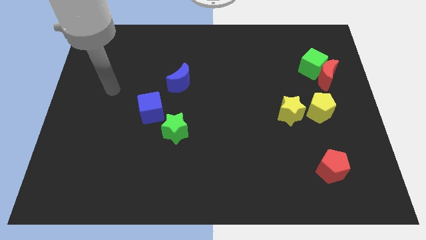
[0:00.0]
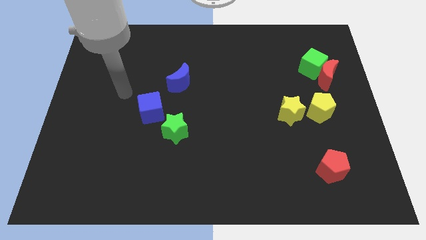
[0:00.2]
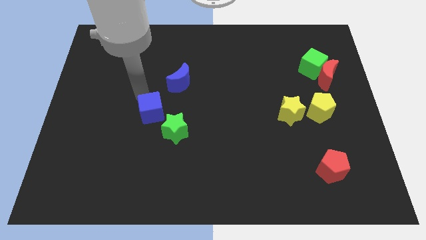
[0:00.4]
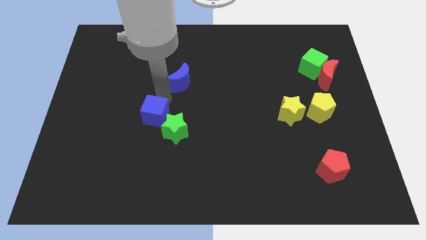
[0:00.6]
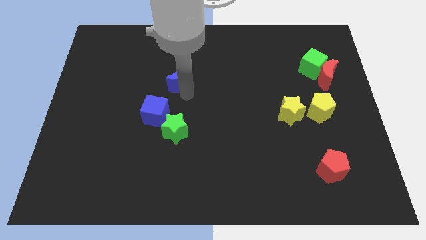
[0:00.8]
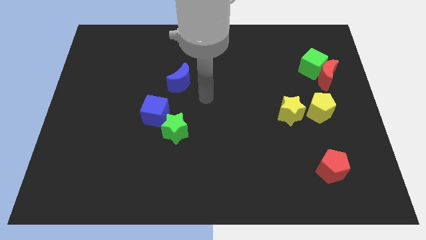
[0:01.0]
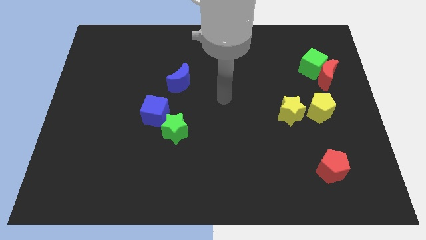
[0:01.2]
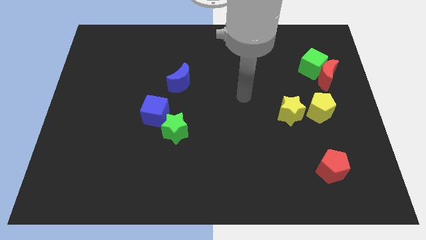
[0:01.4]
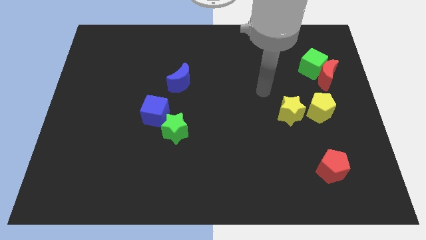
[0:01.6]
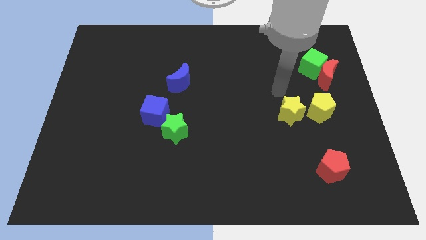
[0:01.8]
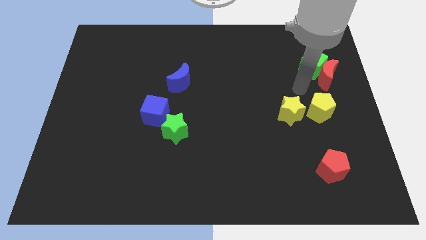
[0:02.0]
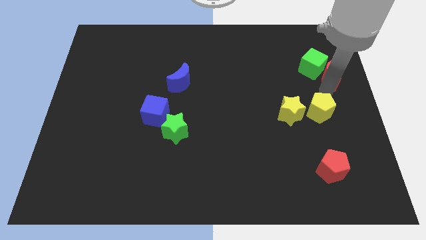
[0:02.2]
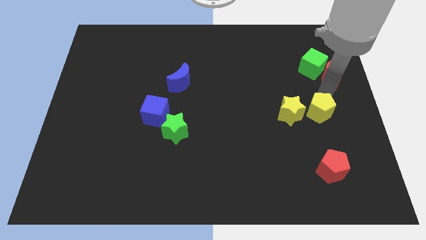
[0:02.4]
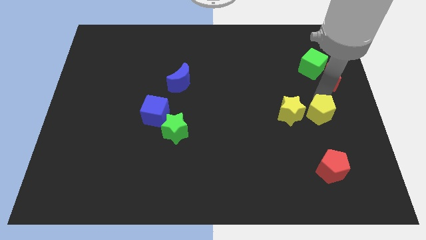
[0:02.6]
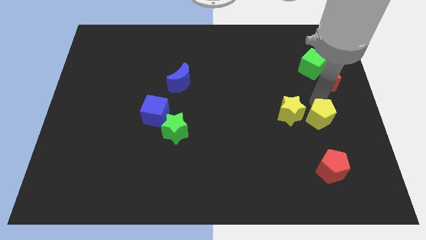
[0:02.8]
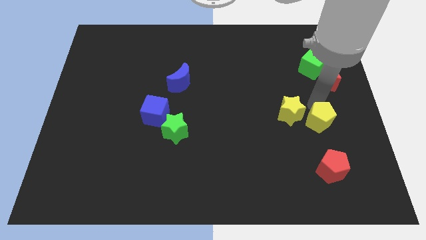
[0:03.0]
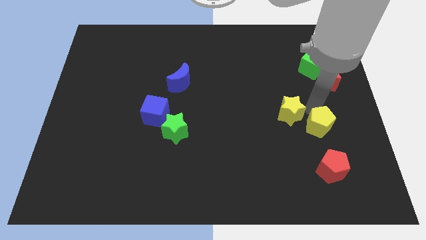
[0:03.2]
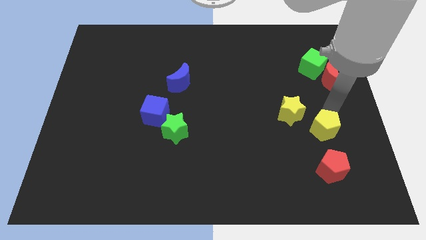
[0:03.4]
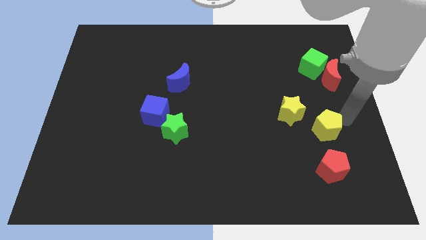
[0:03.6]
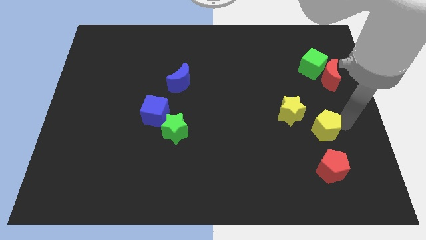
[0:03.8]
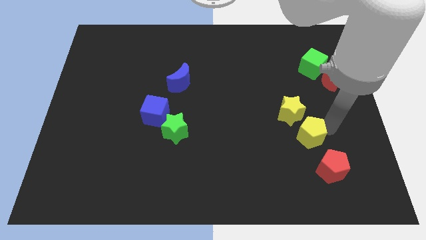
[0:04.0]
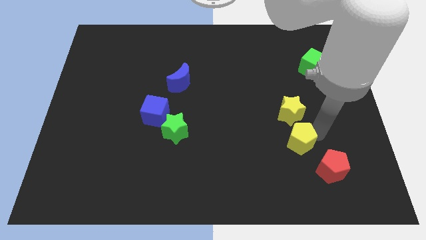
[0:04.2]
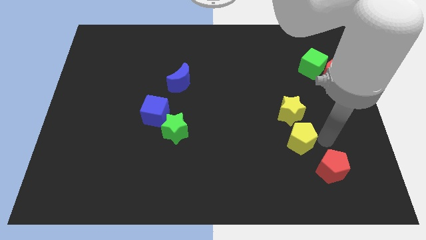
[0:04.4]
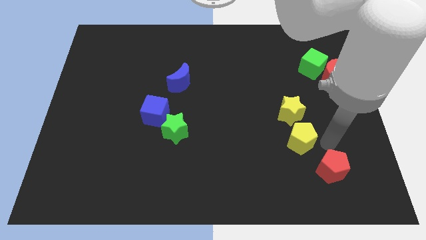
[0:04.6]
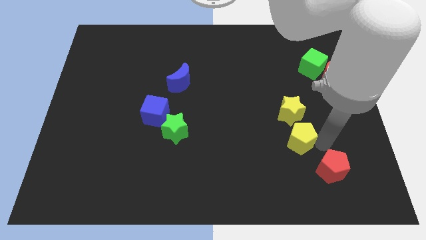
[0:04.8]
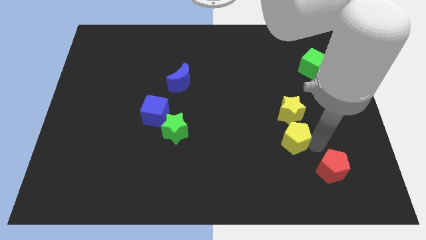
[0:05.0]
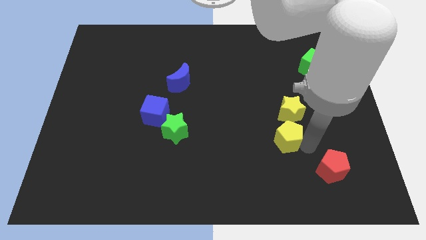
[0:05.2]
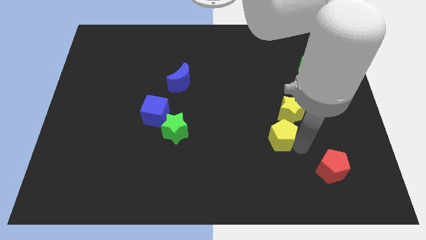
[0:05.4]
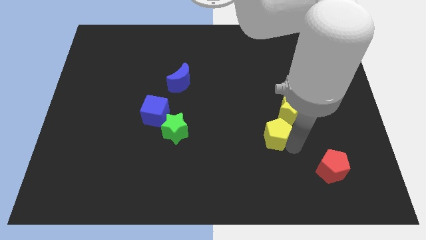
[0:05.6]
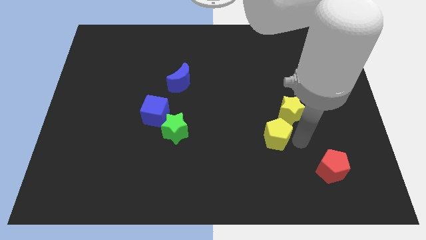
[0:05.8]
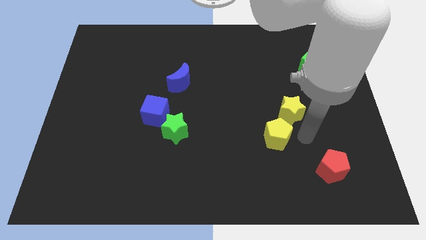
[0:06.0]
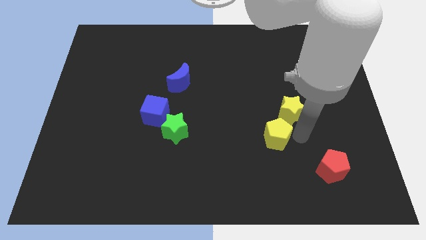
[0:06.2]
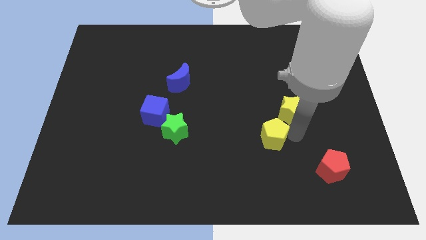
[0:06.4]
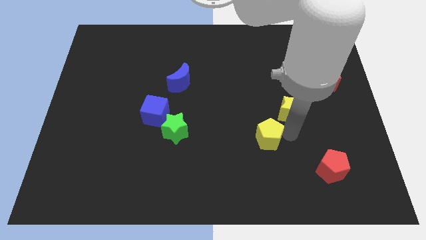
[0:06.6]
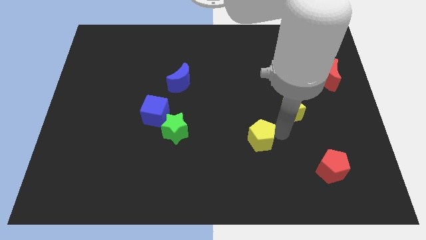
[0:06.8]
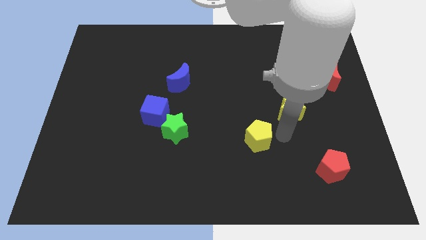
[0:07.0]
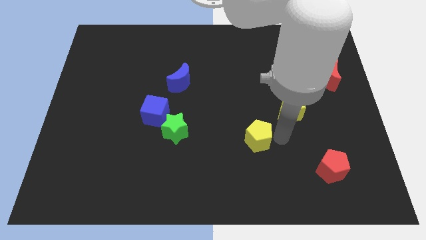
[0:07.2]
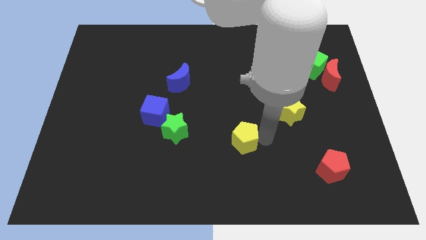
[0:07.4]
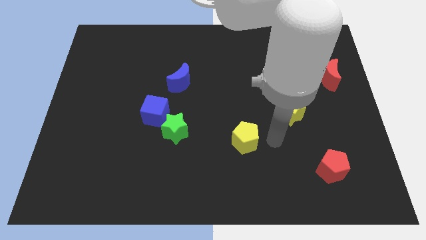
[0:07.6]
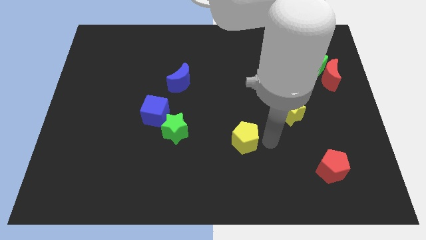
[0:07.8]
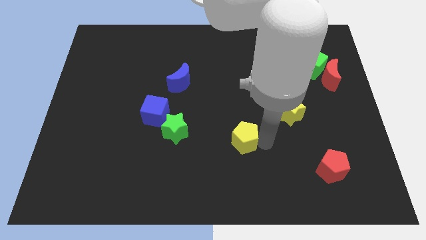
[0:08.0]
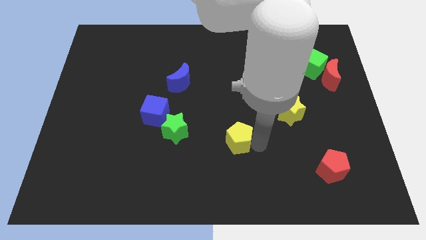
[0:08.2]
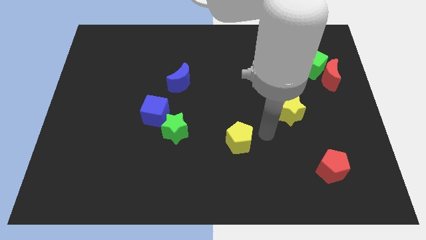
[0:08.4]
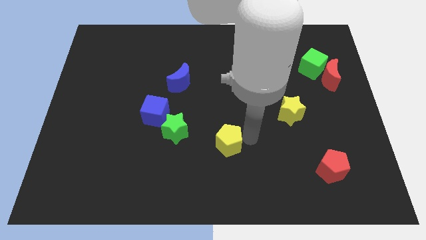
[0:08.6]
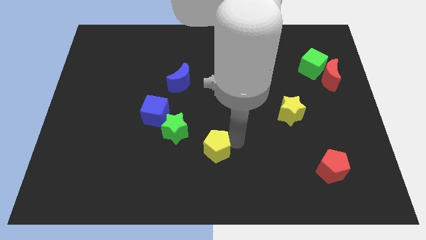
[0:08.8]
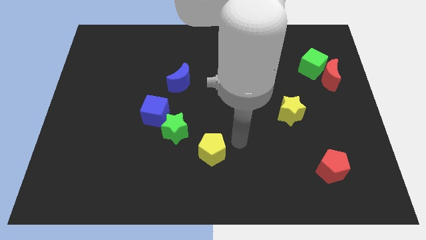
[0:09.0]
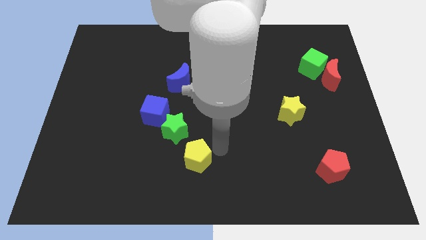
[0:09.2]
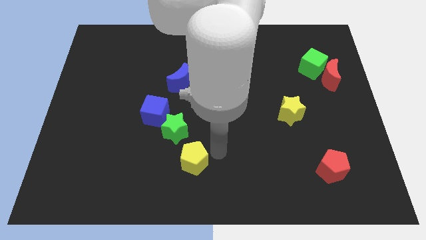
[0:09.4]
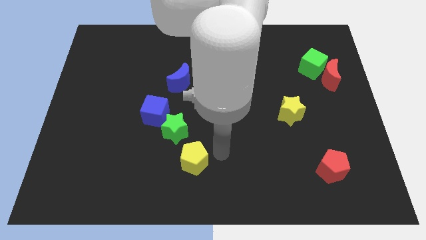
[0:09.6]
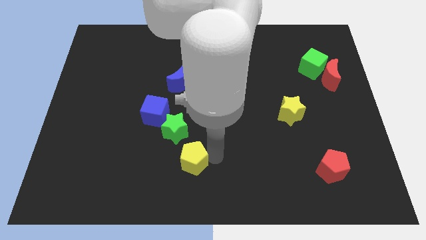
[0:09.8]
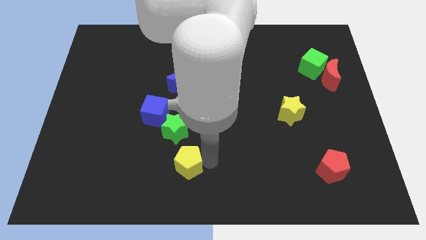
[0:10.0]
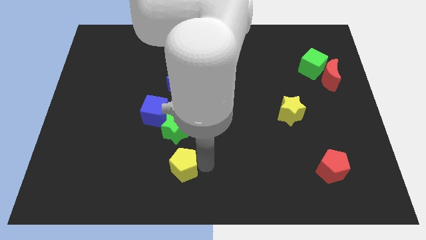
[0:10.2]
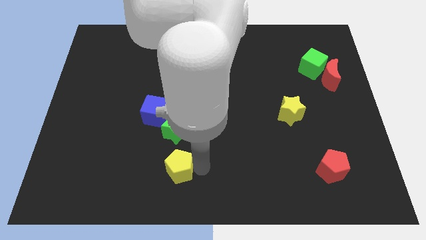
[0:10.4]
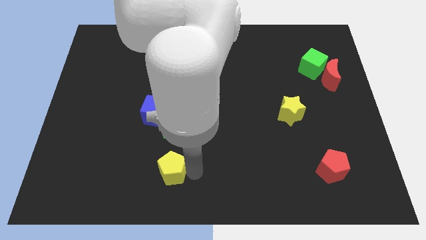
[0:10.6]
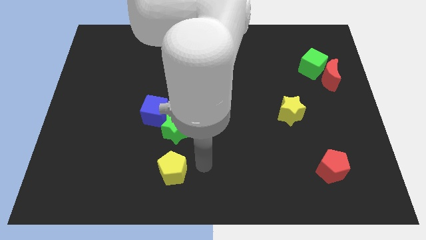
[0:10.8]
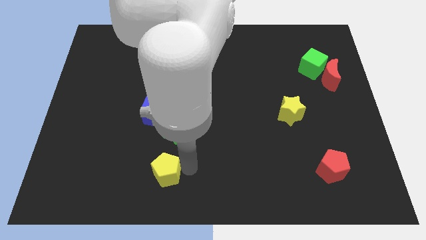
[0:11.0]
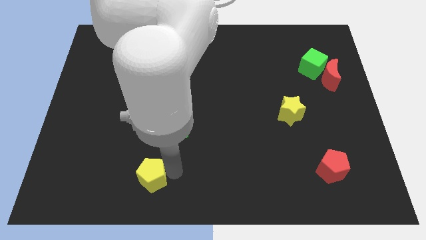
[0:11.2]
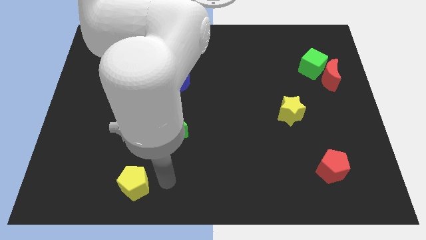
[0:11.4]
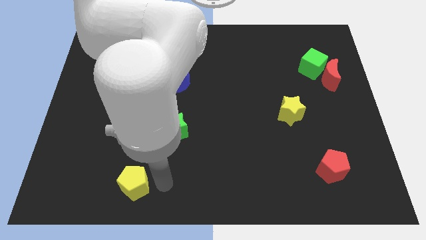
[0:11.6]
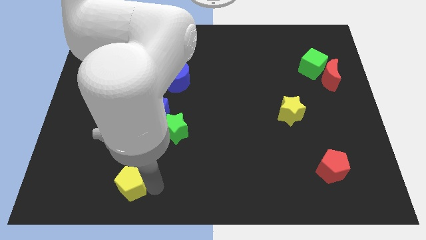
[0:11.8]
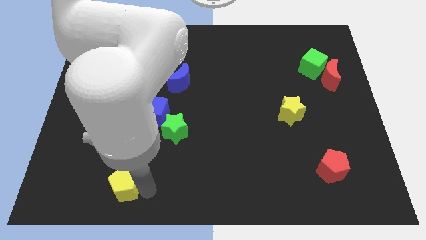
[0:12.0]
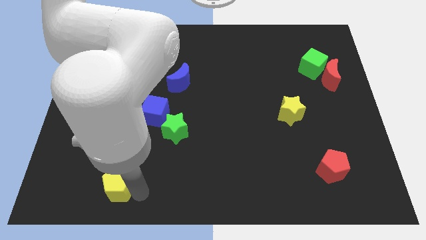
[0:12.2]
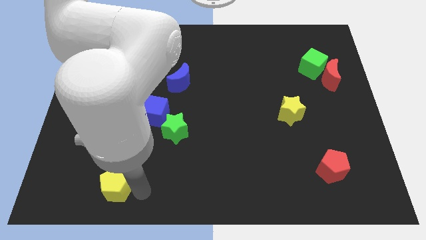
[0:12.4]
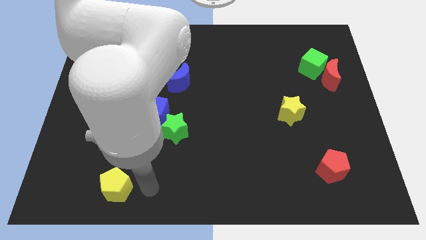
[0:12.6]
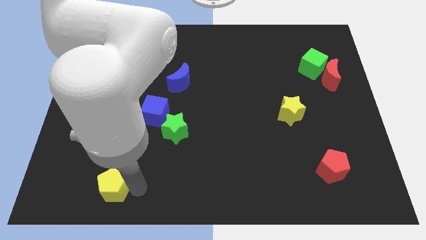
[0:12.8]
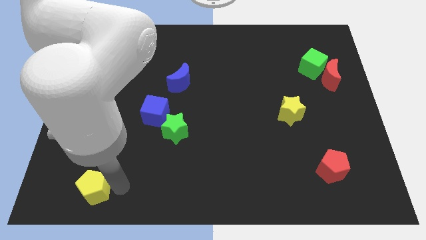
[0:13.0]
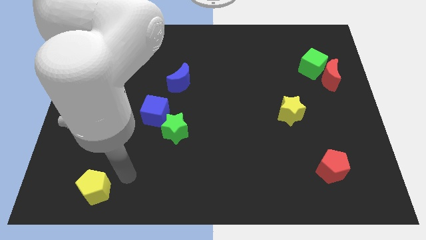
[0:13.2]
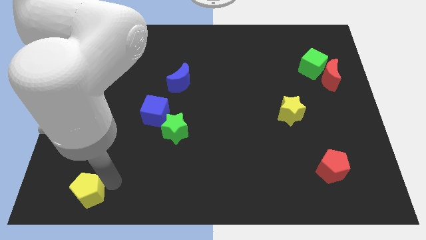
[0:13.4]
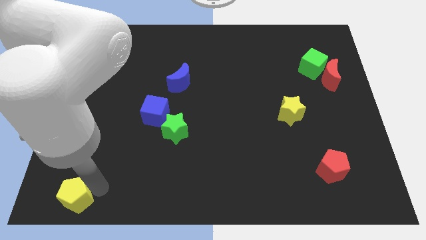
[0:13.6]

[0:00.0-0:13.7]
push the yellow pentagon to the lower left corner
